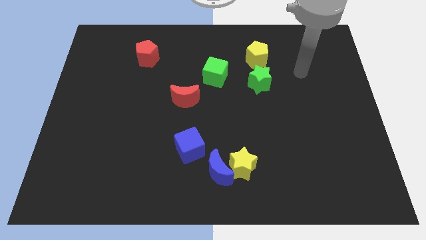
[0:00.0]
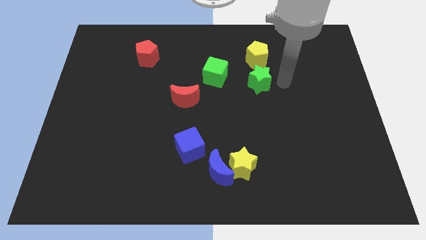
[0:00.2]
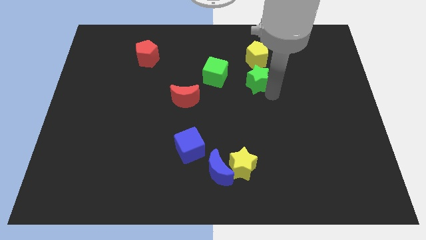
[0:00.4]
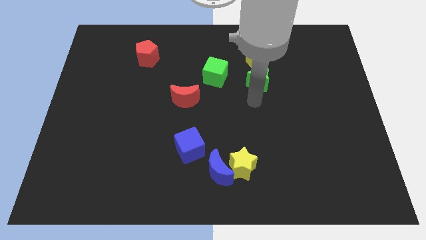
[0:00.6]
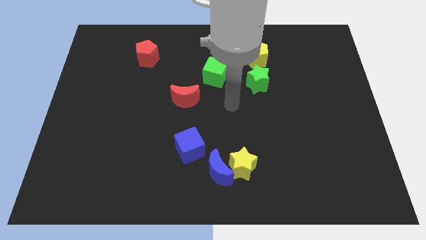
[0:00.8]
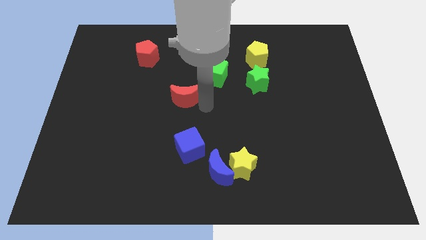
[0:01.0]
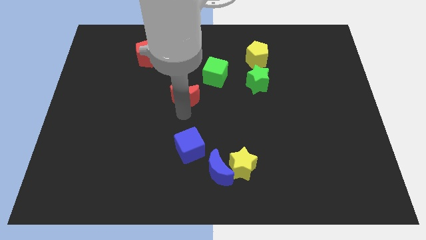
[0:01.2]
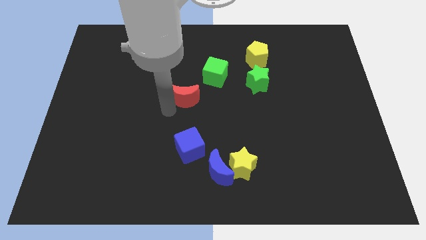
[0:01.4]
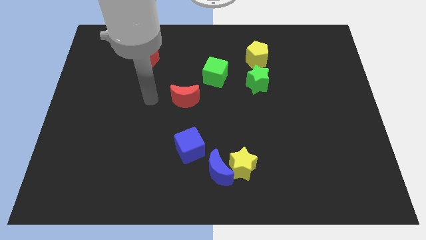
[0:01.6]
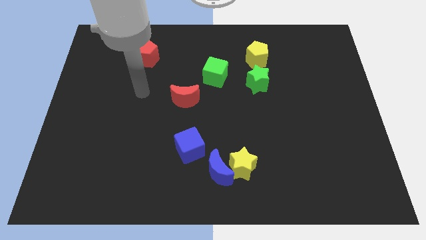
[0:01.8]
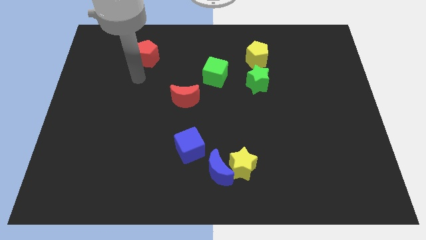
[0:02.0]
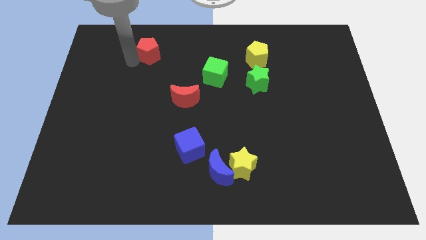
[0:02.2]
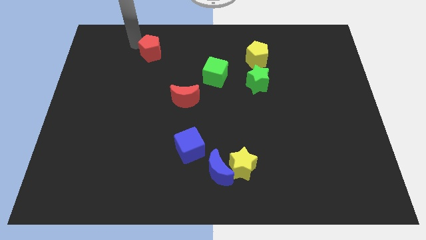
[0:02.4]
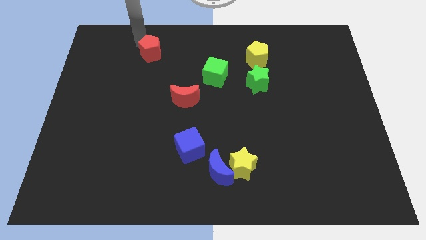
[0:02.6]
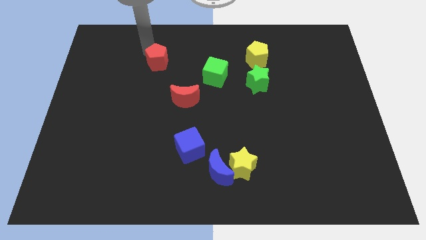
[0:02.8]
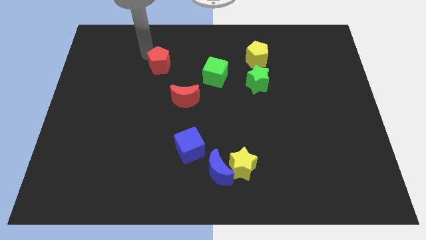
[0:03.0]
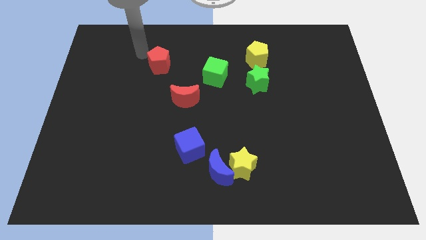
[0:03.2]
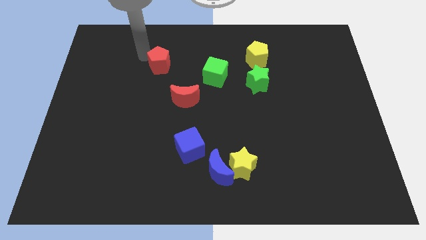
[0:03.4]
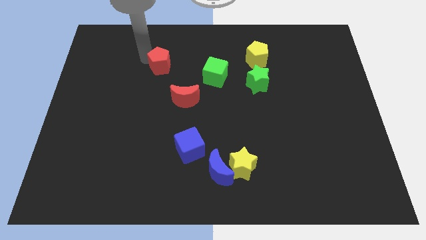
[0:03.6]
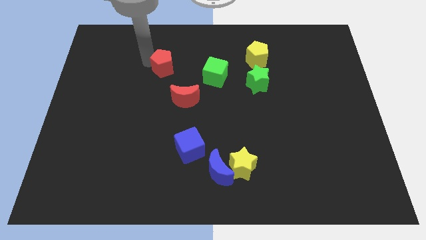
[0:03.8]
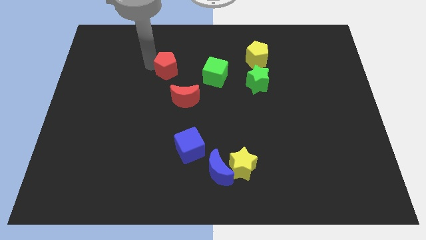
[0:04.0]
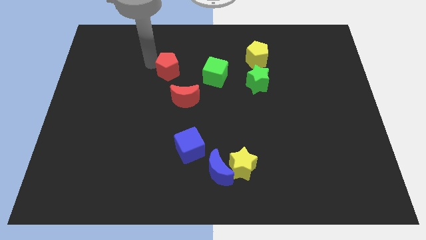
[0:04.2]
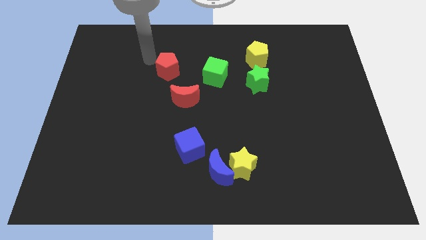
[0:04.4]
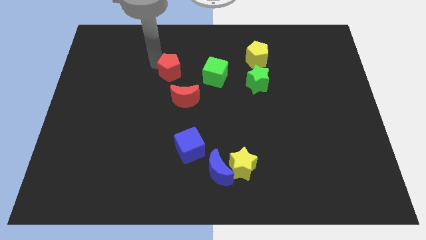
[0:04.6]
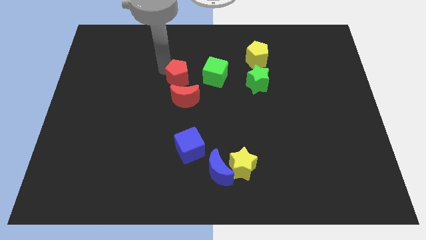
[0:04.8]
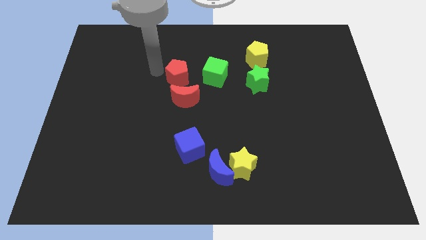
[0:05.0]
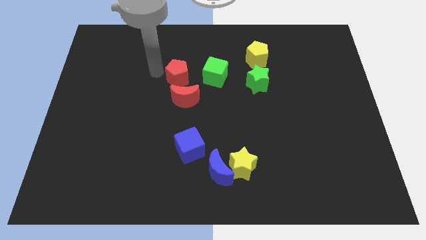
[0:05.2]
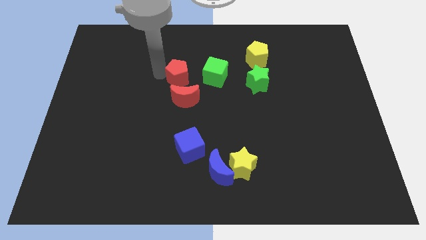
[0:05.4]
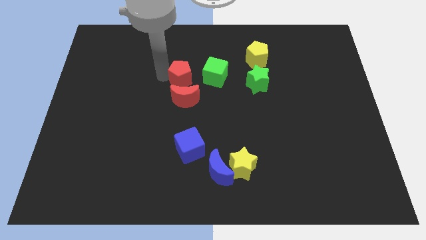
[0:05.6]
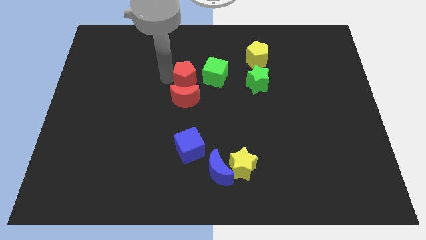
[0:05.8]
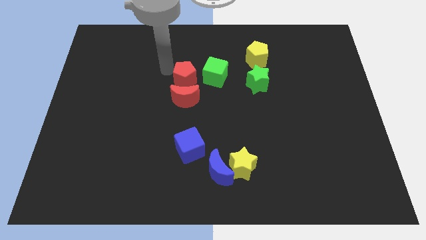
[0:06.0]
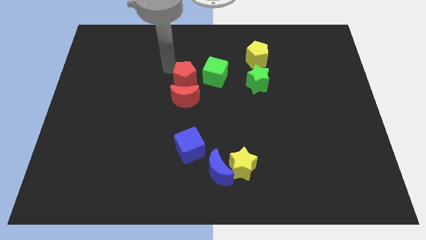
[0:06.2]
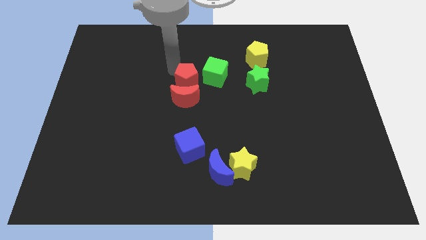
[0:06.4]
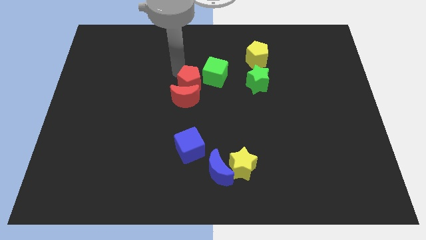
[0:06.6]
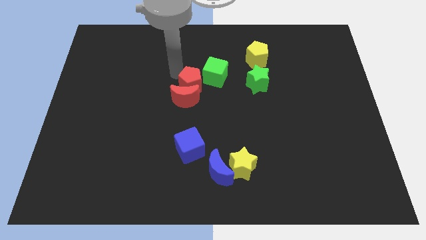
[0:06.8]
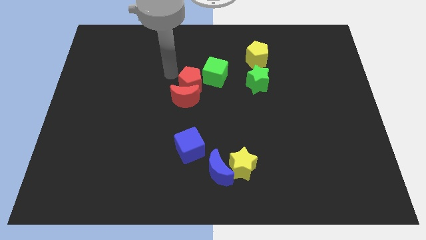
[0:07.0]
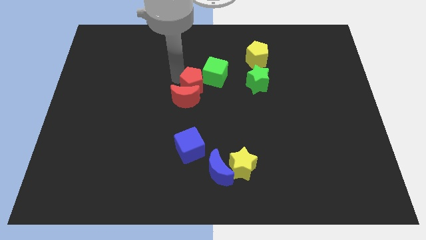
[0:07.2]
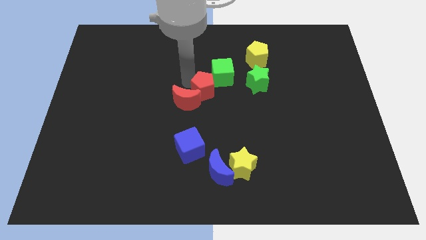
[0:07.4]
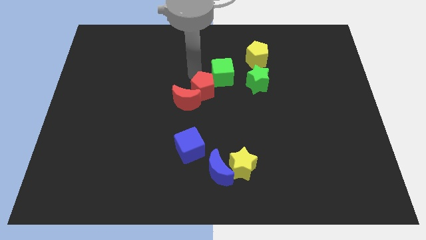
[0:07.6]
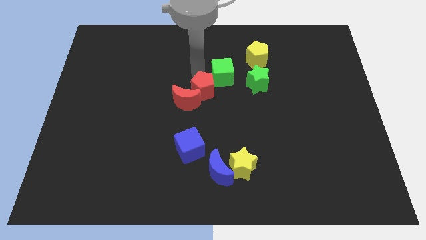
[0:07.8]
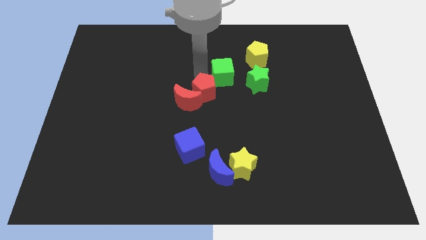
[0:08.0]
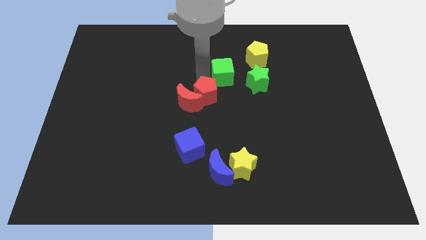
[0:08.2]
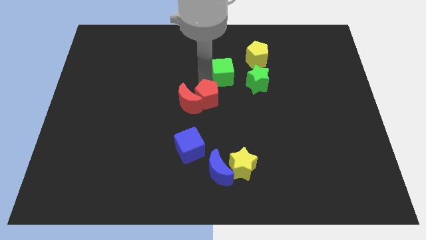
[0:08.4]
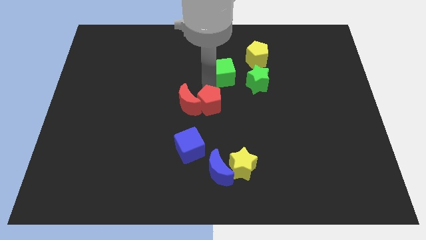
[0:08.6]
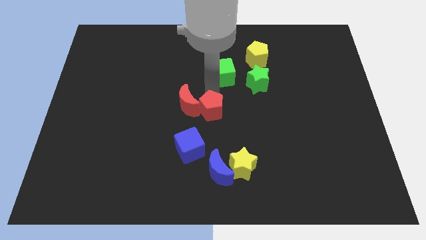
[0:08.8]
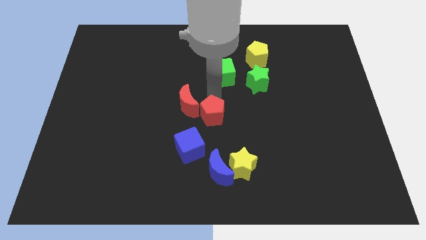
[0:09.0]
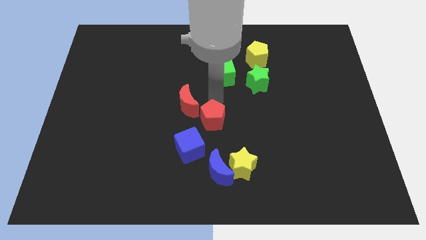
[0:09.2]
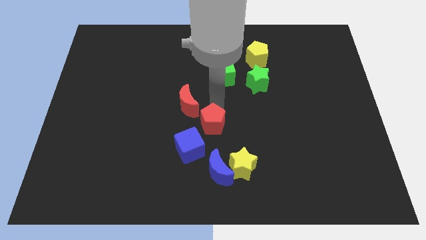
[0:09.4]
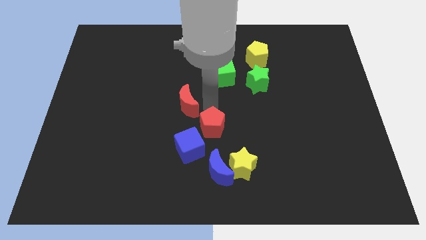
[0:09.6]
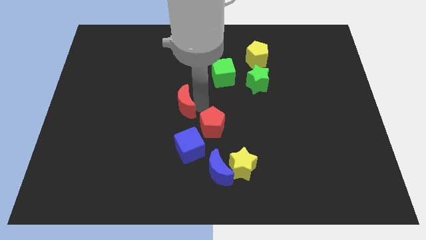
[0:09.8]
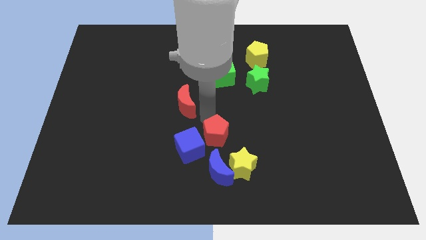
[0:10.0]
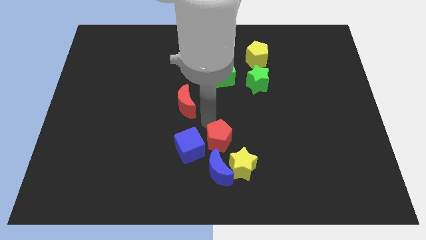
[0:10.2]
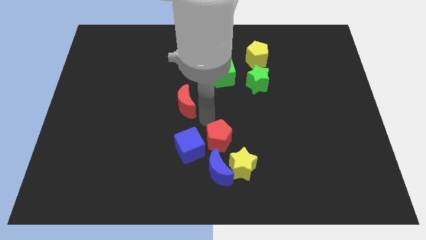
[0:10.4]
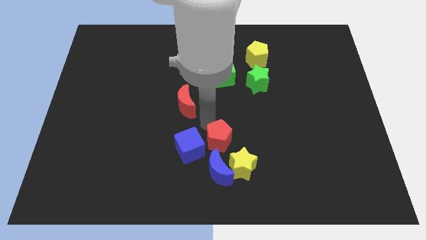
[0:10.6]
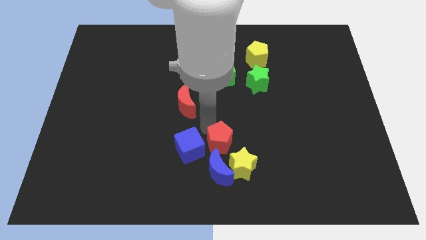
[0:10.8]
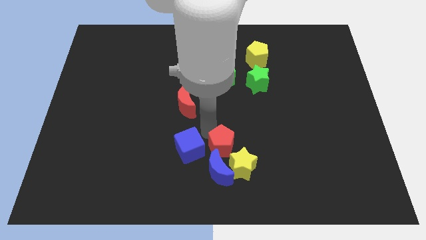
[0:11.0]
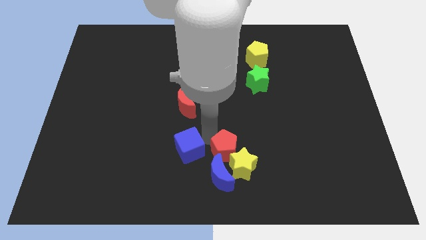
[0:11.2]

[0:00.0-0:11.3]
slide the red pentagon towards the yellow star
